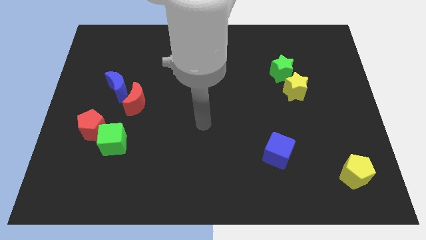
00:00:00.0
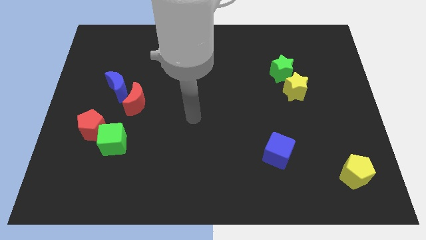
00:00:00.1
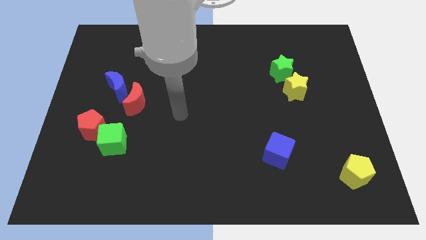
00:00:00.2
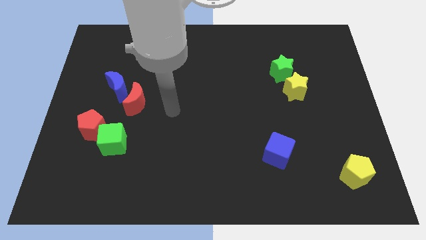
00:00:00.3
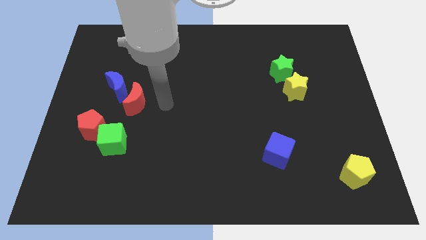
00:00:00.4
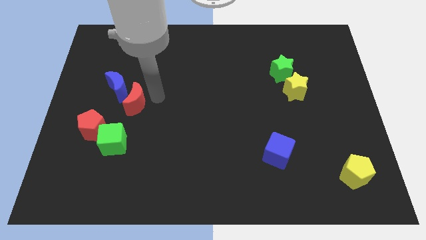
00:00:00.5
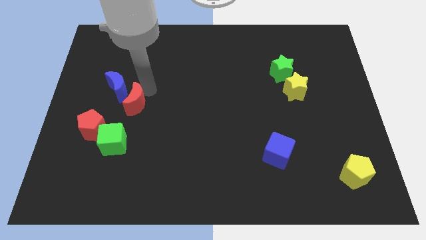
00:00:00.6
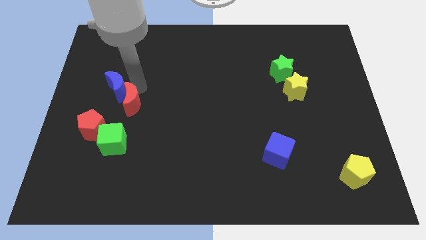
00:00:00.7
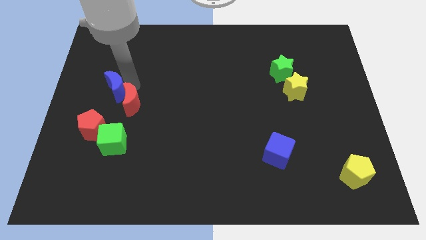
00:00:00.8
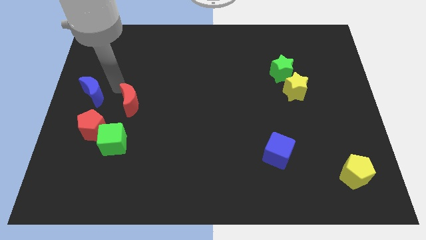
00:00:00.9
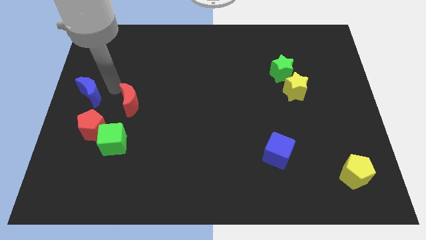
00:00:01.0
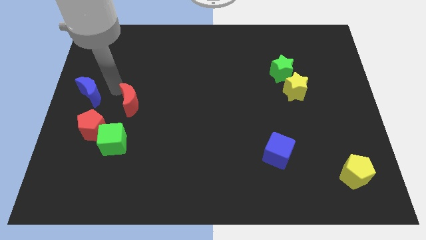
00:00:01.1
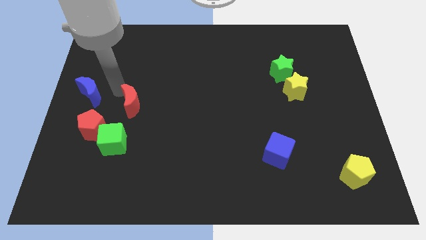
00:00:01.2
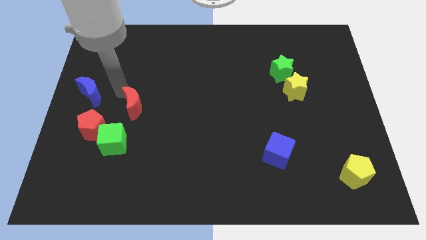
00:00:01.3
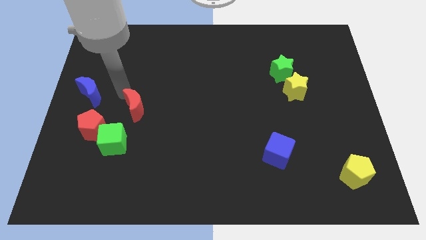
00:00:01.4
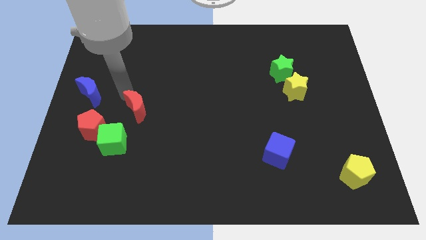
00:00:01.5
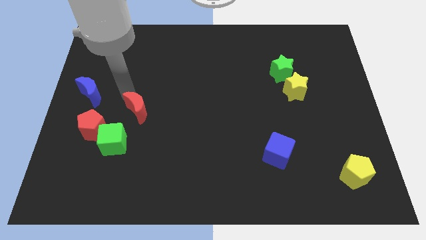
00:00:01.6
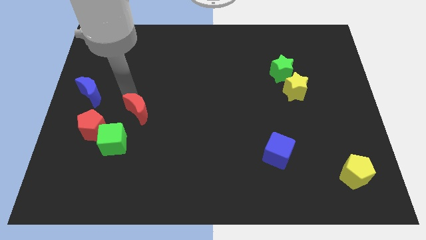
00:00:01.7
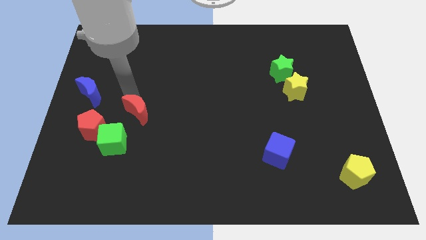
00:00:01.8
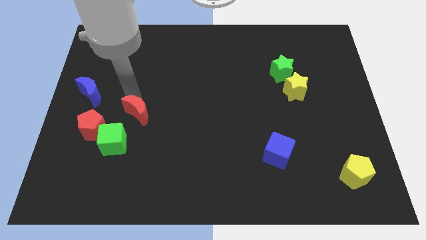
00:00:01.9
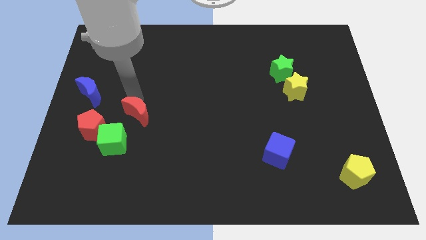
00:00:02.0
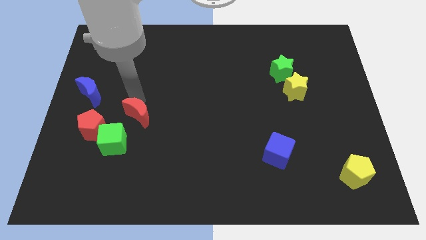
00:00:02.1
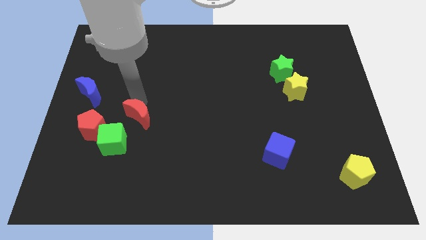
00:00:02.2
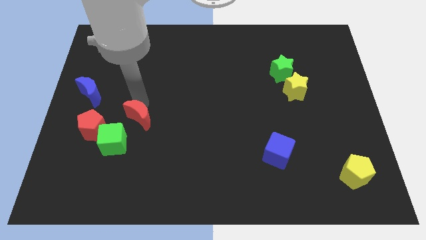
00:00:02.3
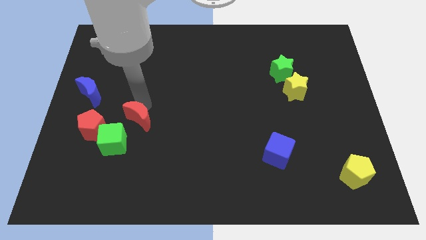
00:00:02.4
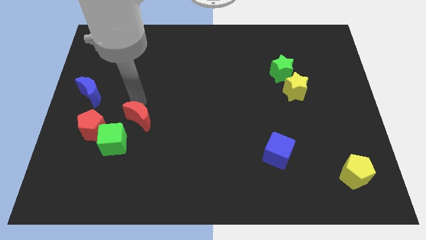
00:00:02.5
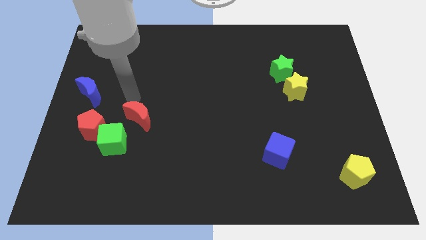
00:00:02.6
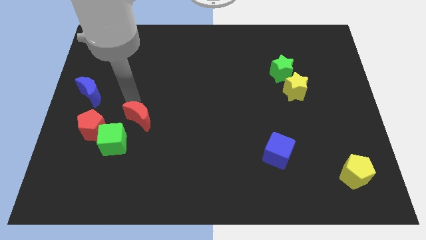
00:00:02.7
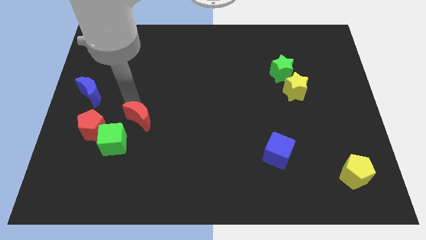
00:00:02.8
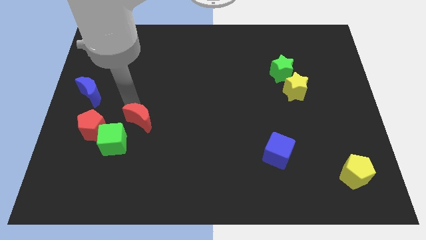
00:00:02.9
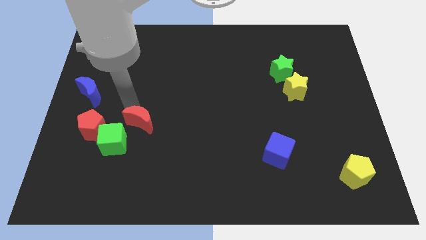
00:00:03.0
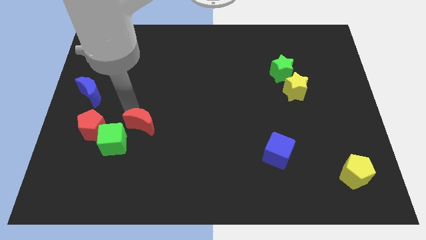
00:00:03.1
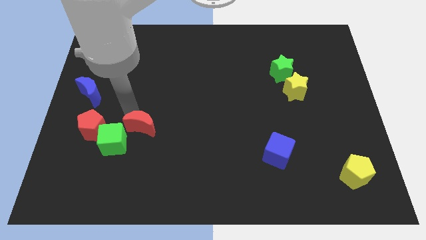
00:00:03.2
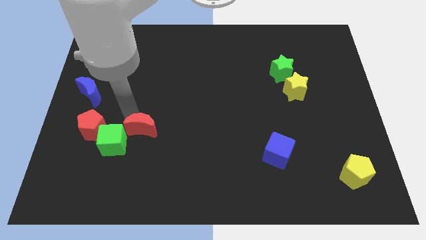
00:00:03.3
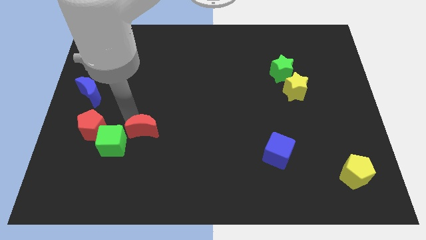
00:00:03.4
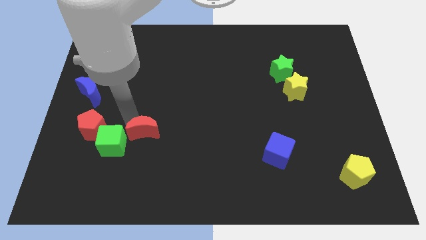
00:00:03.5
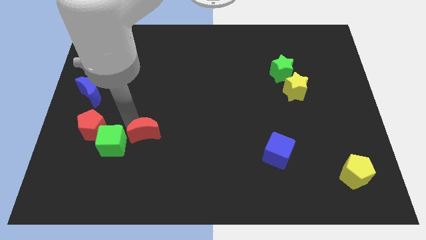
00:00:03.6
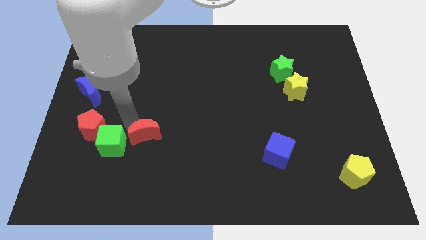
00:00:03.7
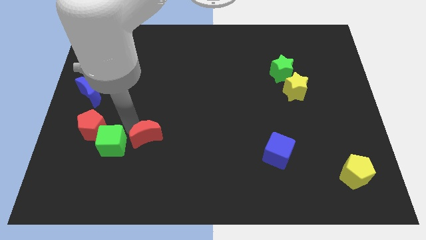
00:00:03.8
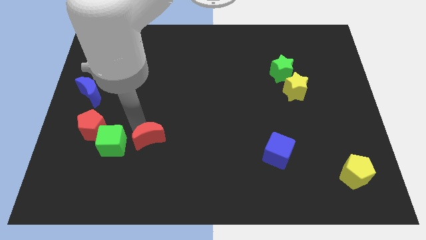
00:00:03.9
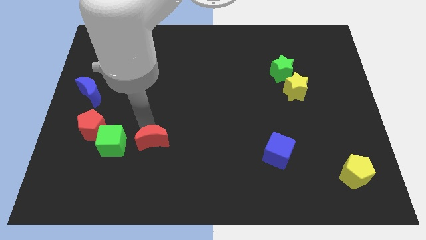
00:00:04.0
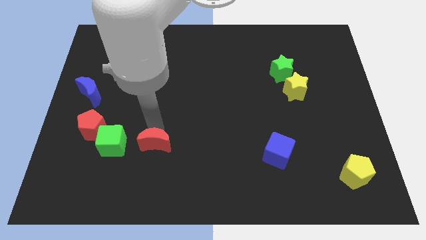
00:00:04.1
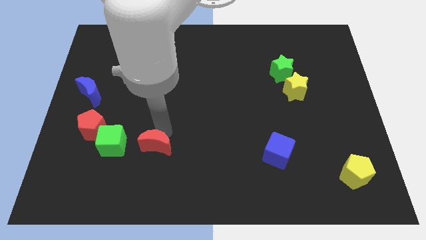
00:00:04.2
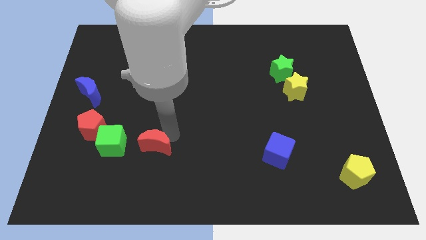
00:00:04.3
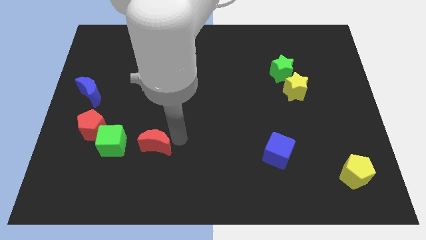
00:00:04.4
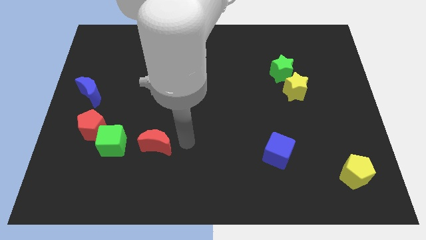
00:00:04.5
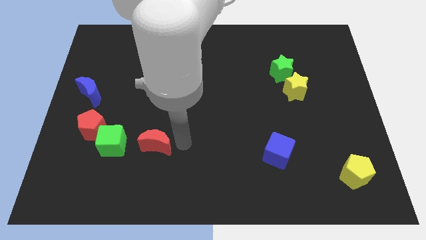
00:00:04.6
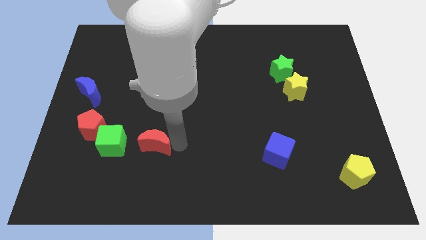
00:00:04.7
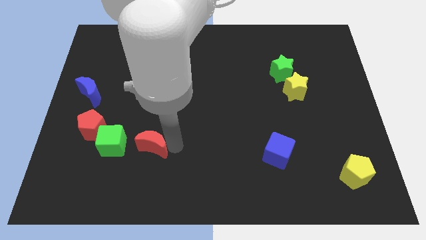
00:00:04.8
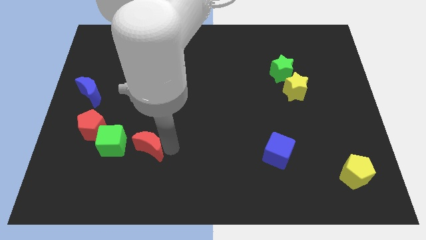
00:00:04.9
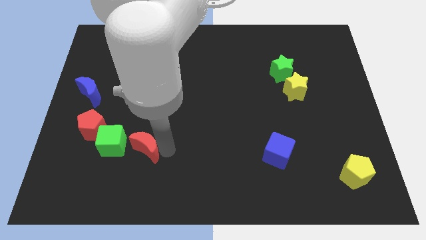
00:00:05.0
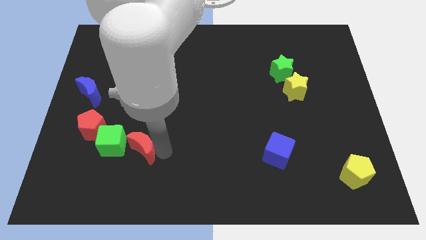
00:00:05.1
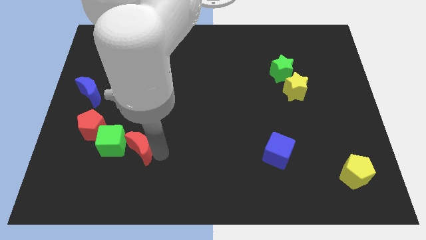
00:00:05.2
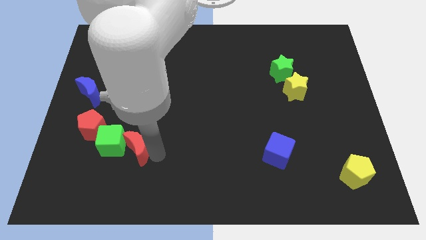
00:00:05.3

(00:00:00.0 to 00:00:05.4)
put the red moon to the bottom right side of the red pentagon

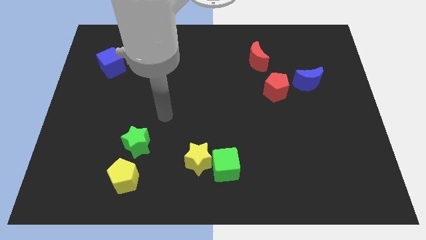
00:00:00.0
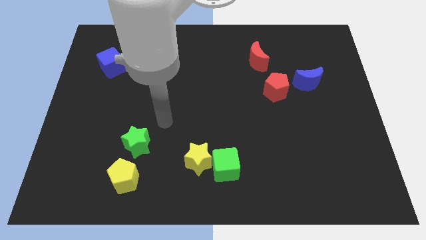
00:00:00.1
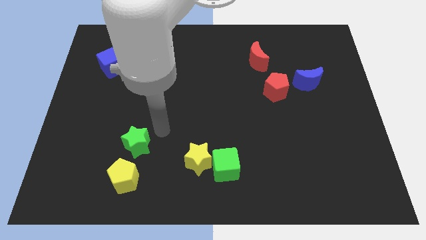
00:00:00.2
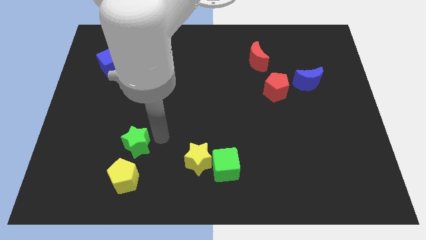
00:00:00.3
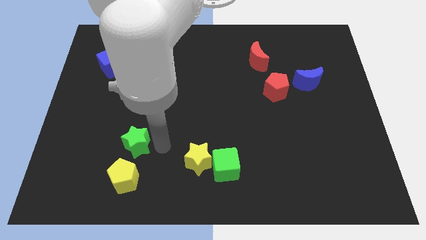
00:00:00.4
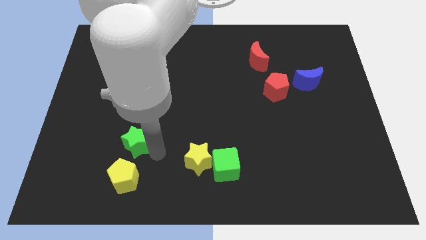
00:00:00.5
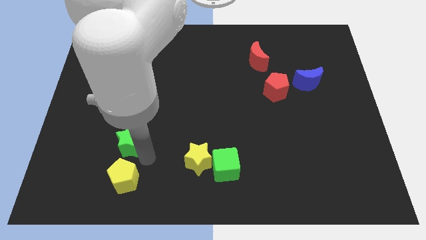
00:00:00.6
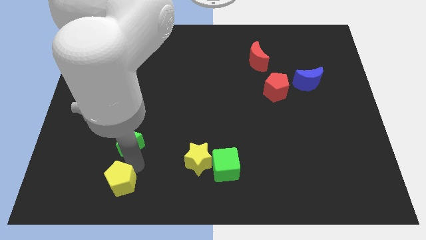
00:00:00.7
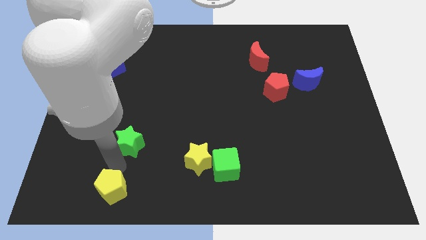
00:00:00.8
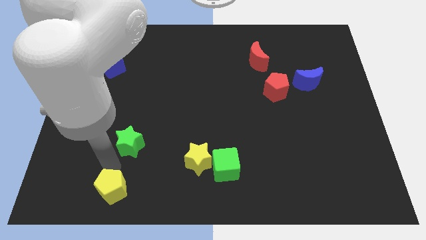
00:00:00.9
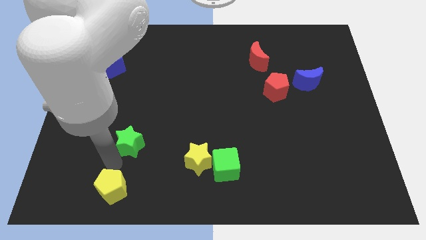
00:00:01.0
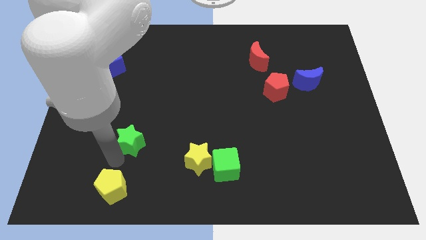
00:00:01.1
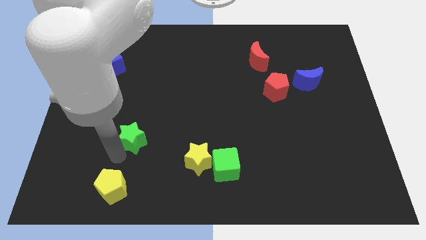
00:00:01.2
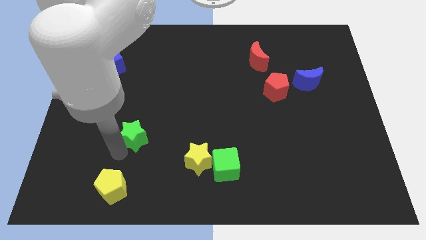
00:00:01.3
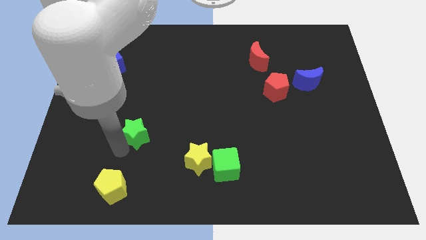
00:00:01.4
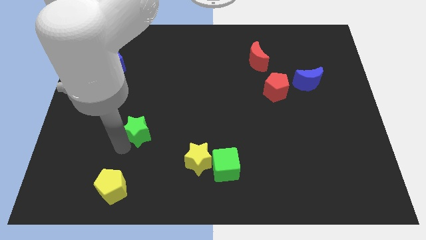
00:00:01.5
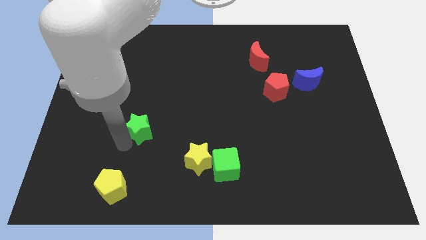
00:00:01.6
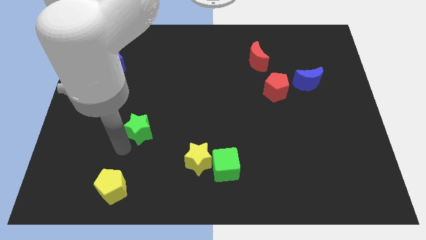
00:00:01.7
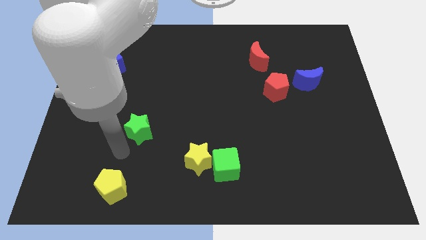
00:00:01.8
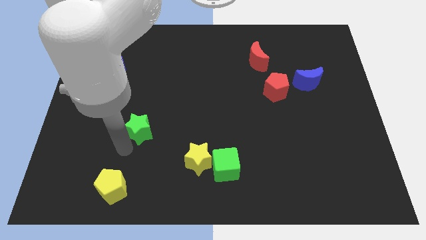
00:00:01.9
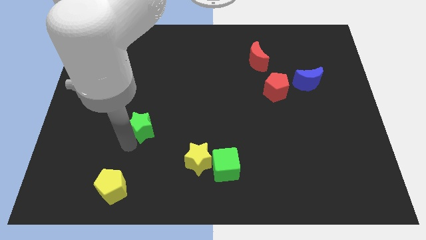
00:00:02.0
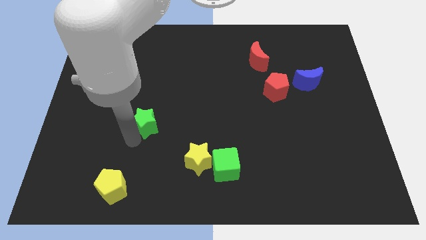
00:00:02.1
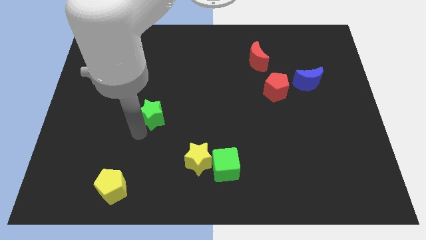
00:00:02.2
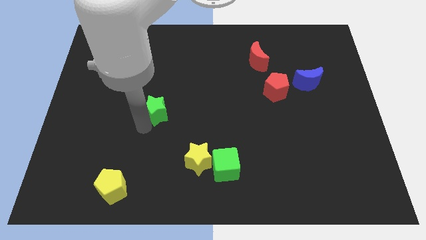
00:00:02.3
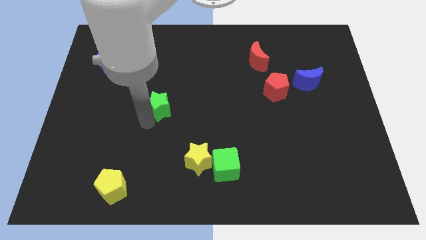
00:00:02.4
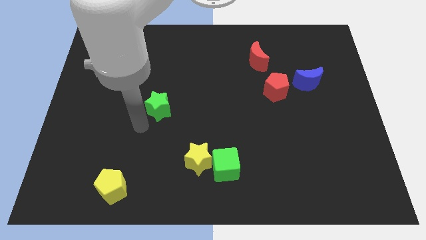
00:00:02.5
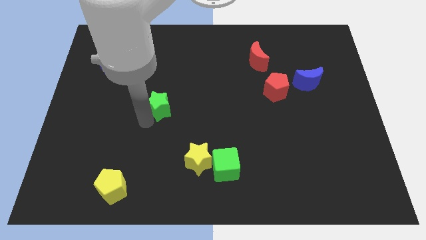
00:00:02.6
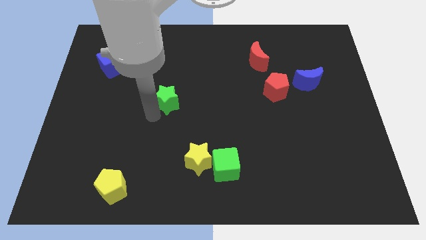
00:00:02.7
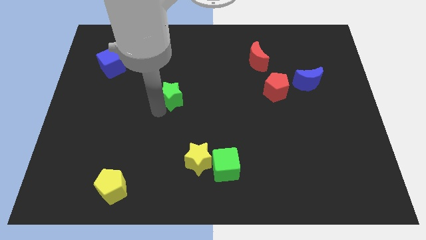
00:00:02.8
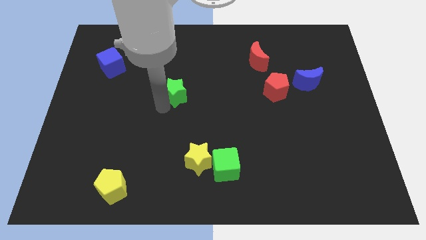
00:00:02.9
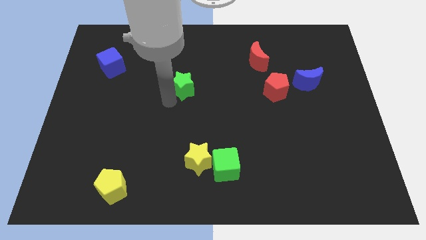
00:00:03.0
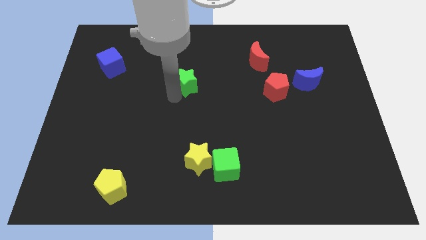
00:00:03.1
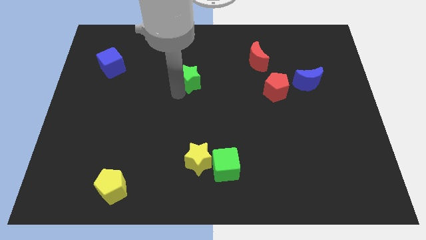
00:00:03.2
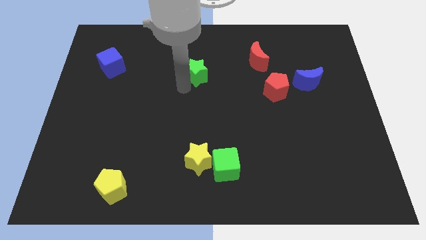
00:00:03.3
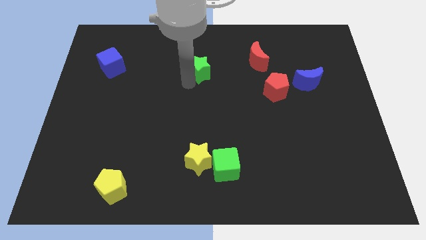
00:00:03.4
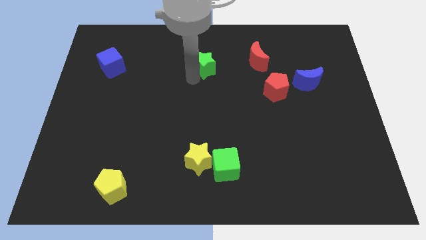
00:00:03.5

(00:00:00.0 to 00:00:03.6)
push the green star left of the red moon
